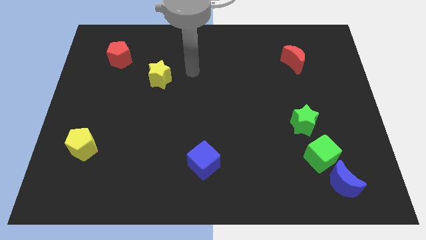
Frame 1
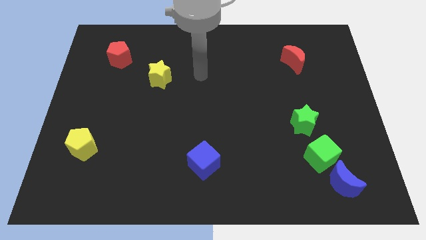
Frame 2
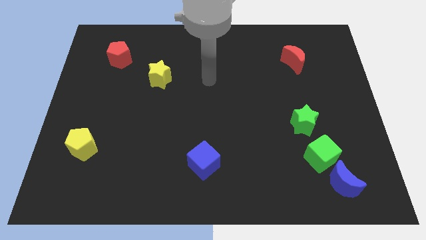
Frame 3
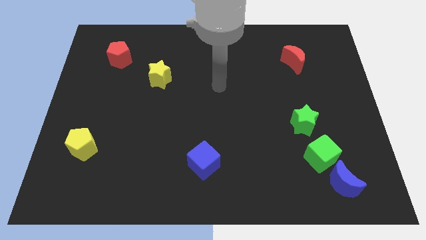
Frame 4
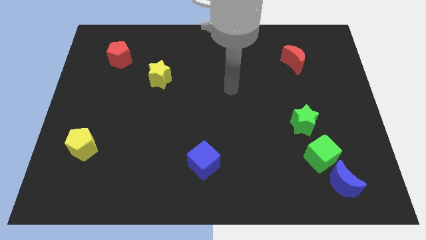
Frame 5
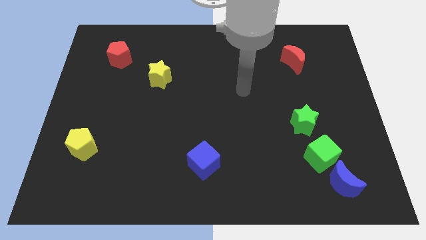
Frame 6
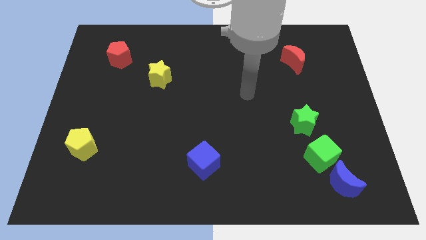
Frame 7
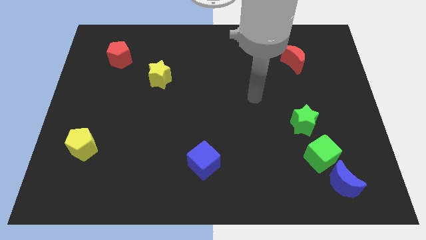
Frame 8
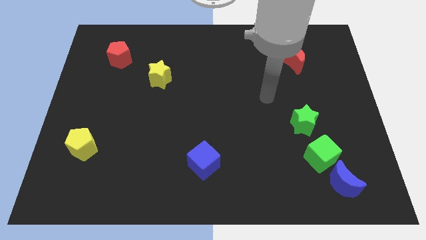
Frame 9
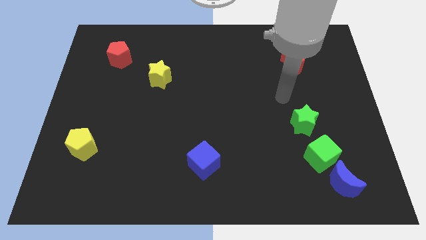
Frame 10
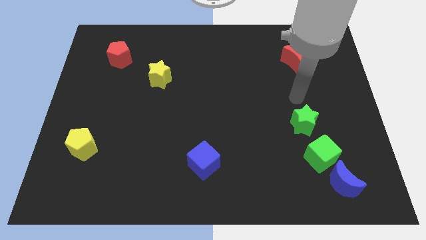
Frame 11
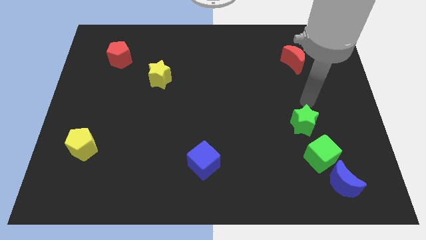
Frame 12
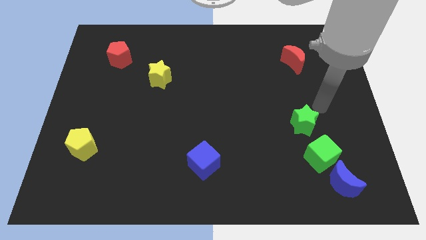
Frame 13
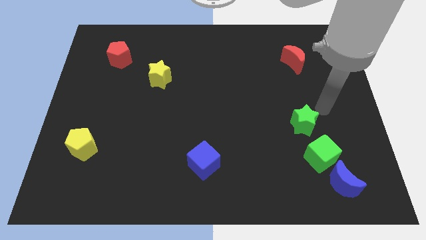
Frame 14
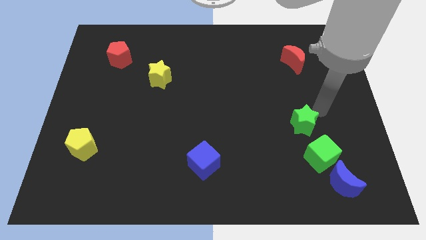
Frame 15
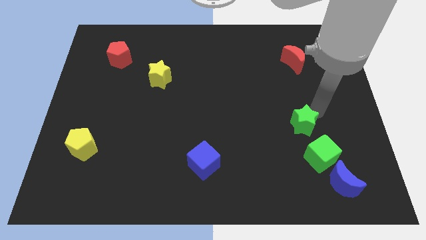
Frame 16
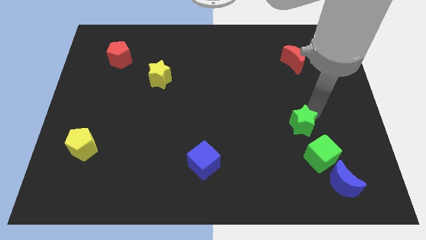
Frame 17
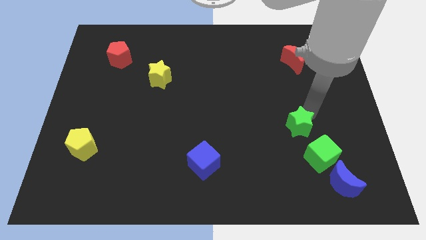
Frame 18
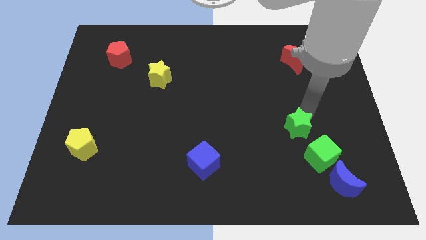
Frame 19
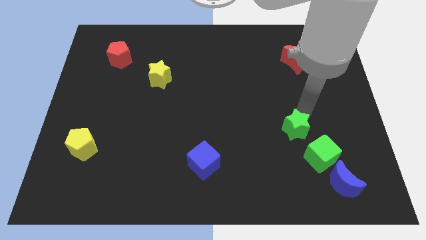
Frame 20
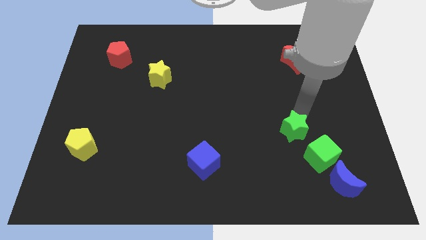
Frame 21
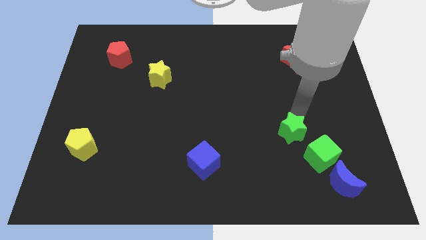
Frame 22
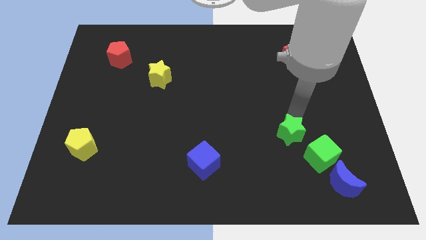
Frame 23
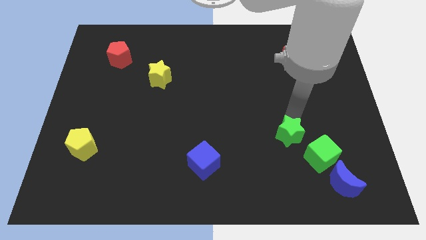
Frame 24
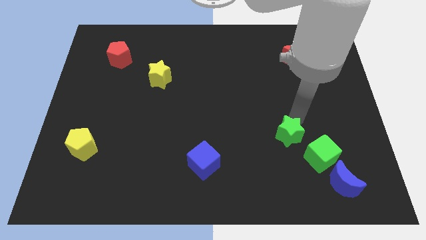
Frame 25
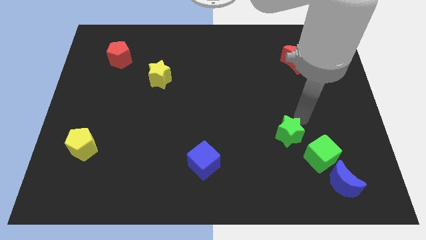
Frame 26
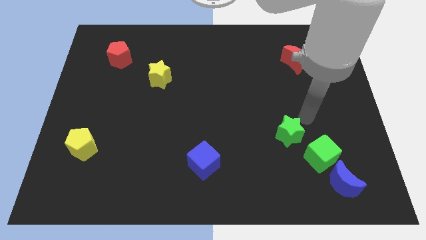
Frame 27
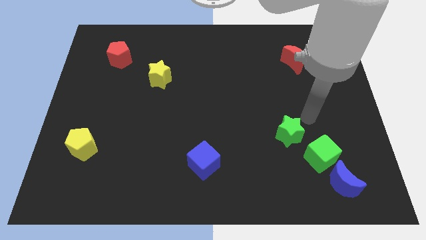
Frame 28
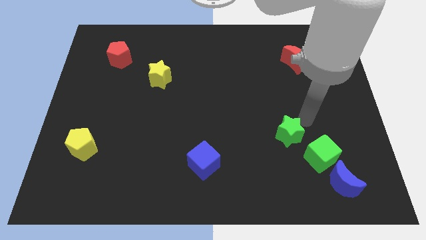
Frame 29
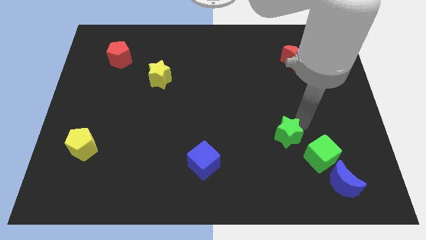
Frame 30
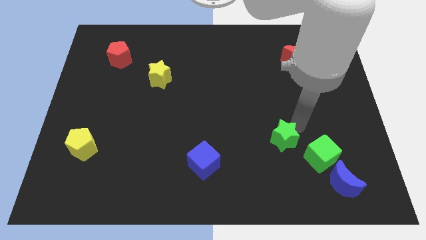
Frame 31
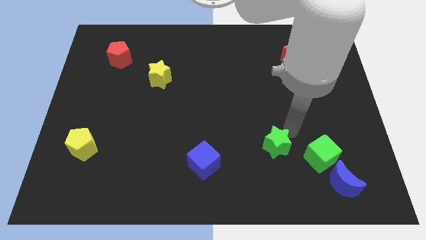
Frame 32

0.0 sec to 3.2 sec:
slide the green star diagonally down and to the left slightly

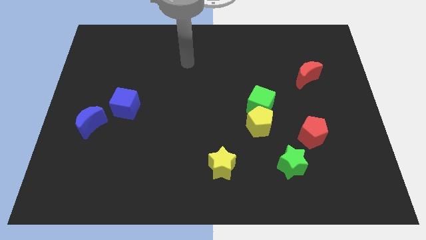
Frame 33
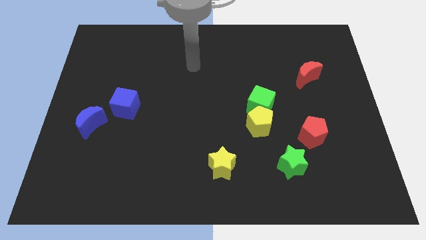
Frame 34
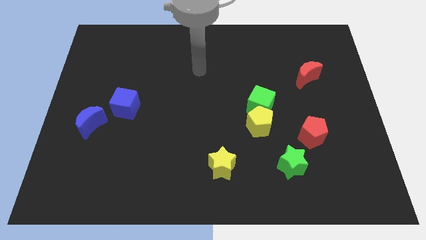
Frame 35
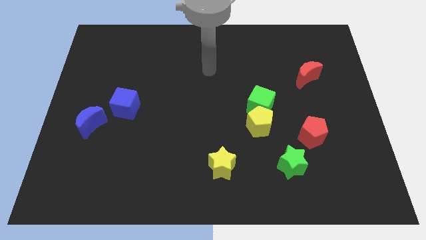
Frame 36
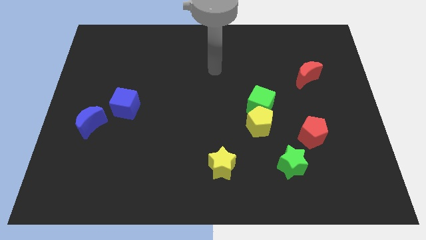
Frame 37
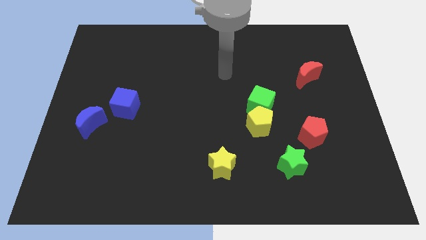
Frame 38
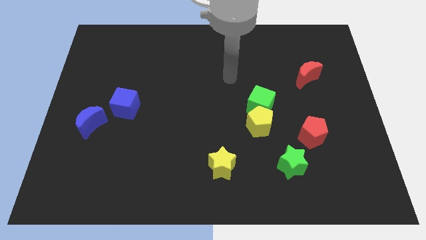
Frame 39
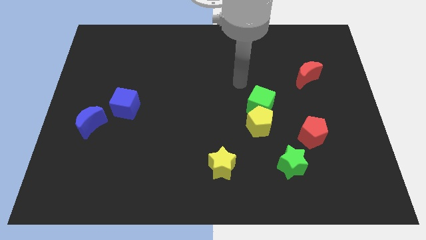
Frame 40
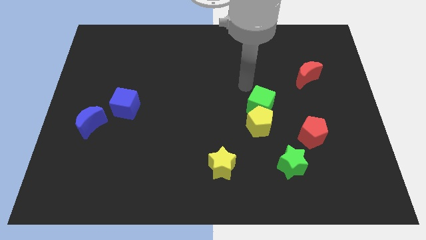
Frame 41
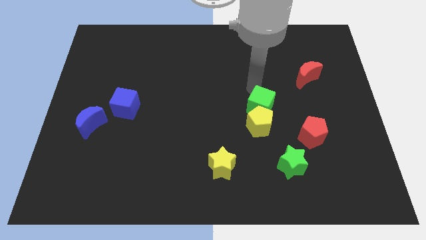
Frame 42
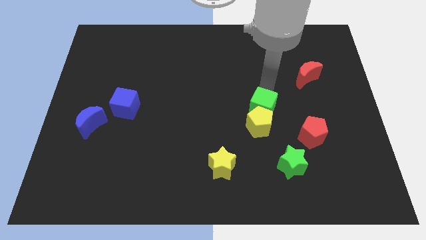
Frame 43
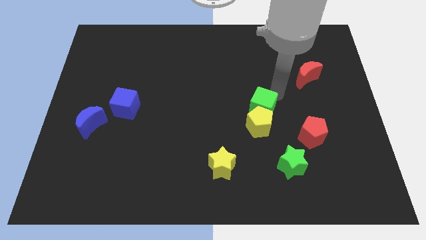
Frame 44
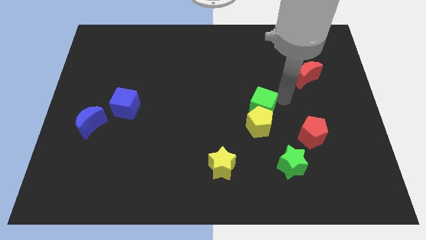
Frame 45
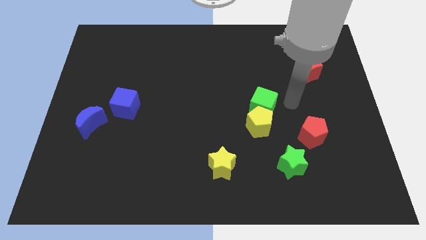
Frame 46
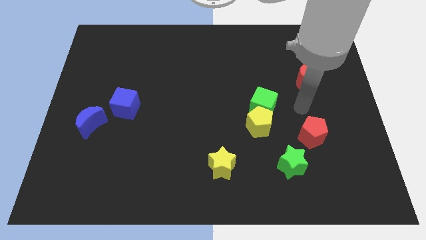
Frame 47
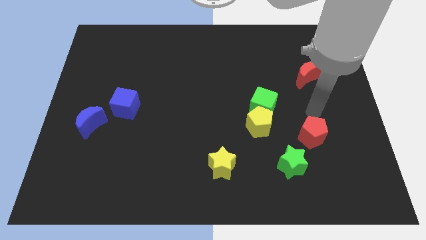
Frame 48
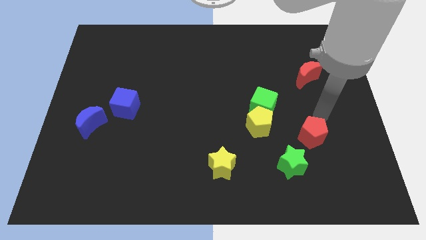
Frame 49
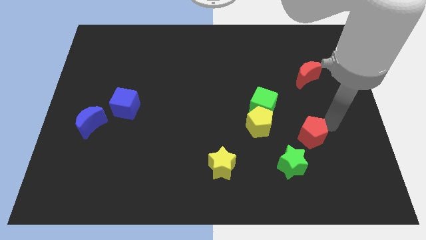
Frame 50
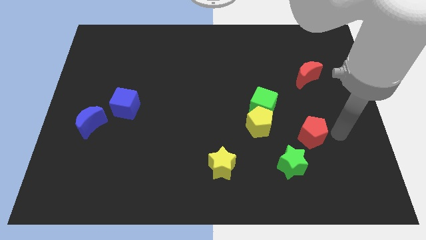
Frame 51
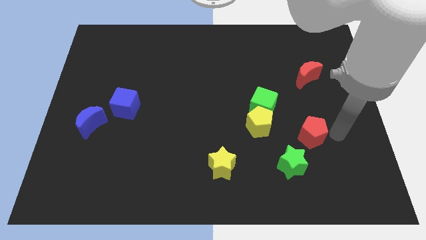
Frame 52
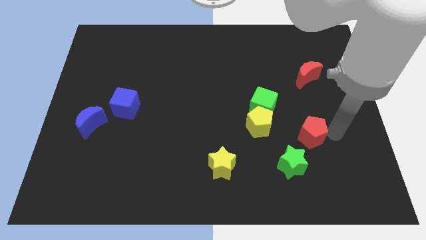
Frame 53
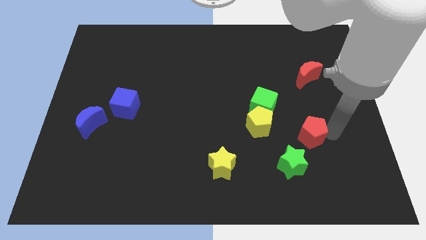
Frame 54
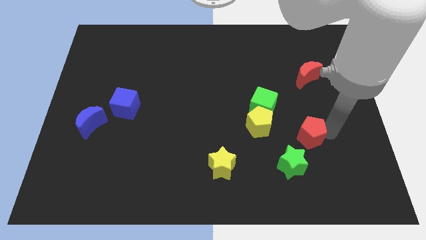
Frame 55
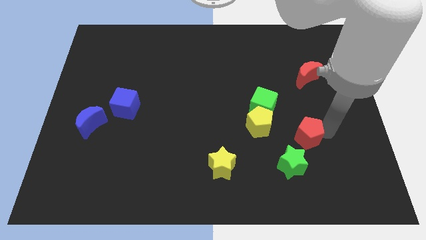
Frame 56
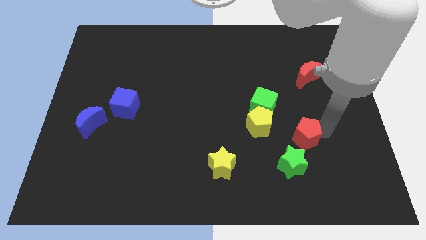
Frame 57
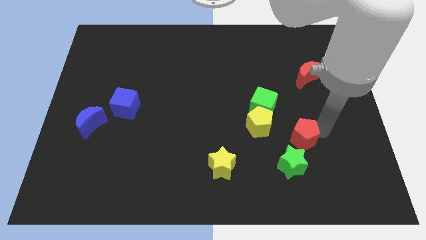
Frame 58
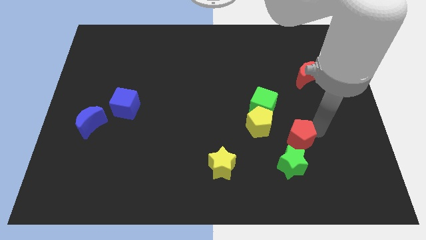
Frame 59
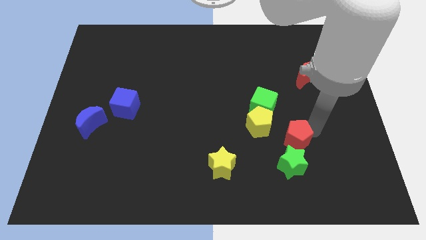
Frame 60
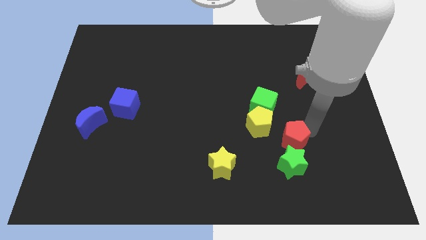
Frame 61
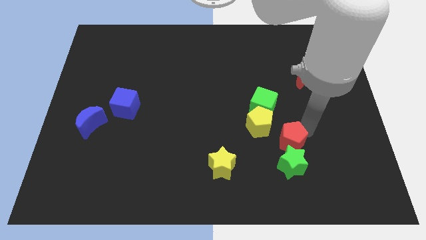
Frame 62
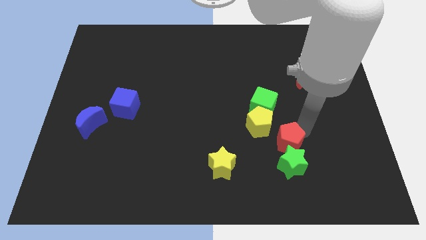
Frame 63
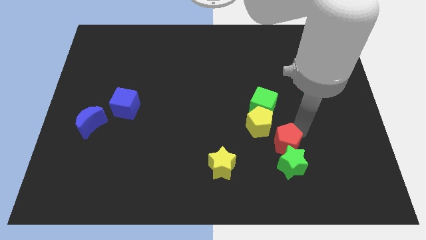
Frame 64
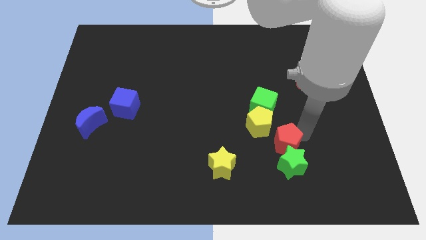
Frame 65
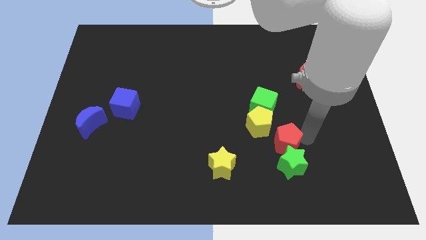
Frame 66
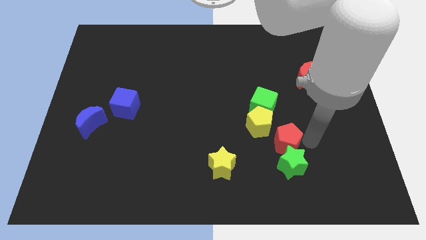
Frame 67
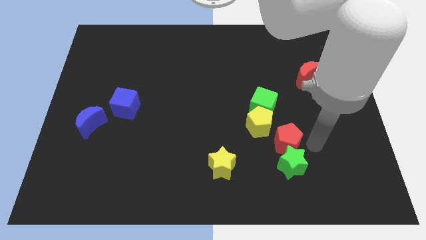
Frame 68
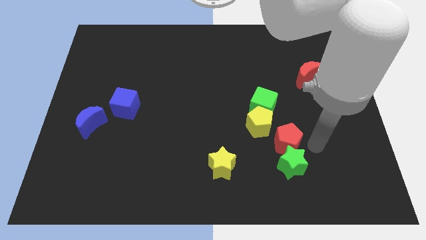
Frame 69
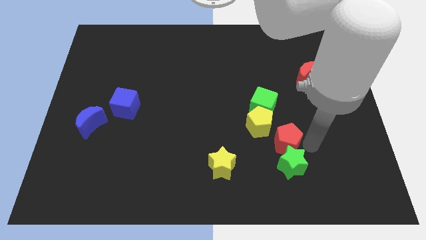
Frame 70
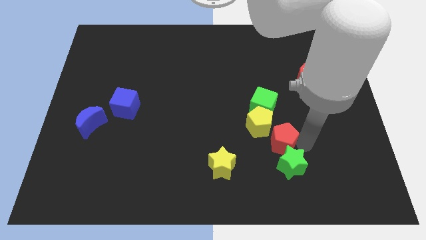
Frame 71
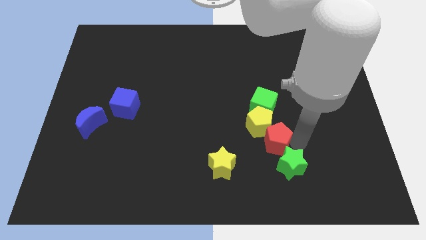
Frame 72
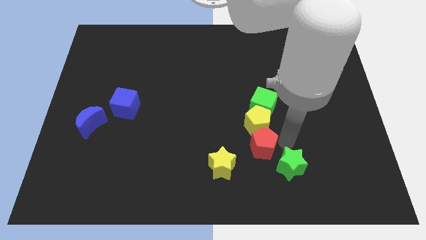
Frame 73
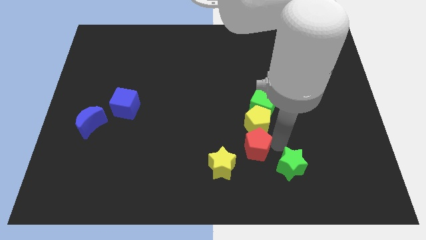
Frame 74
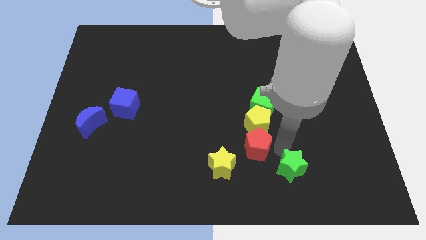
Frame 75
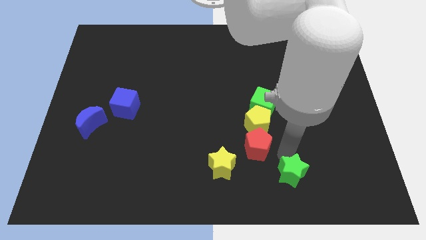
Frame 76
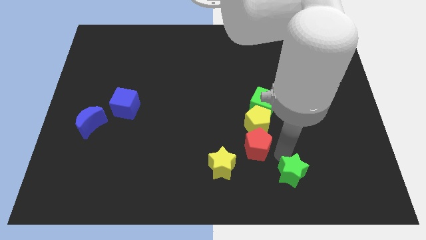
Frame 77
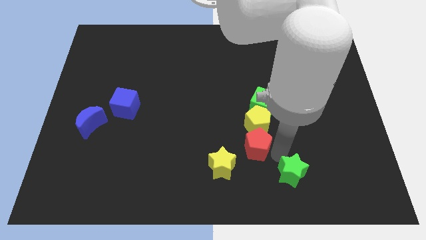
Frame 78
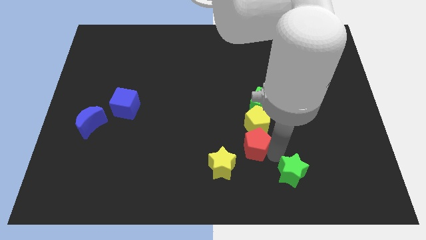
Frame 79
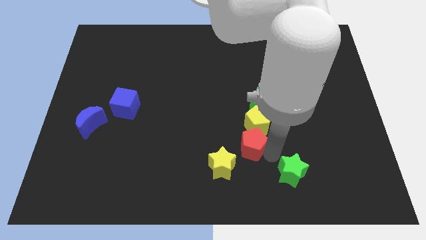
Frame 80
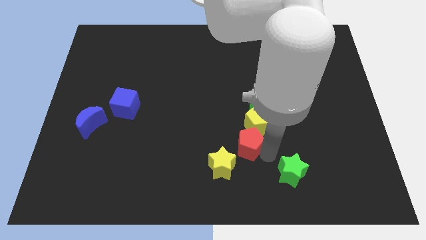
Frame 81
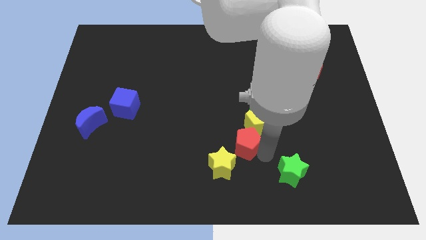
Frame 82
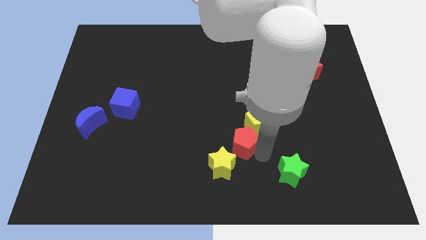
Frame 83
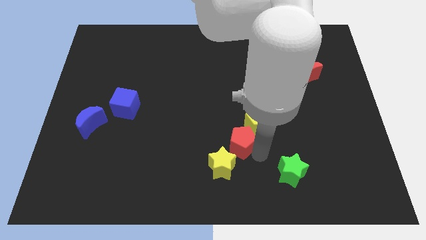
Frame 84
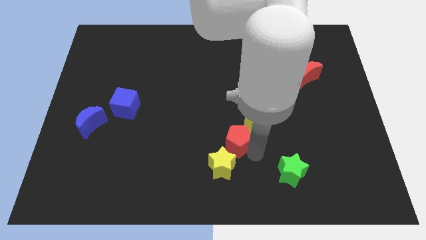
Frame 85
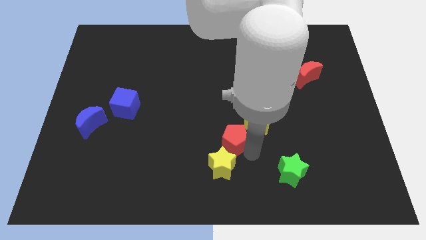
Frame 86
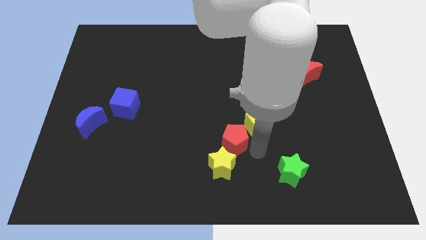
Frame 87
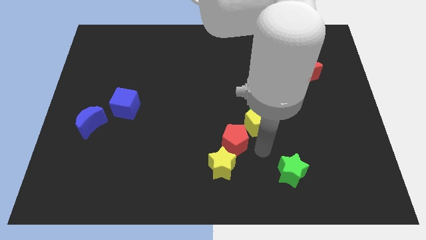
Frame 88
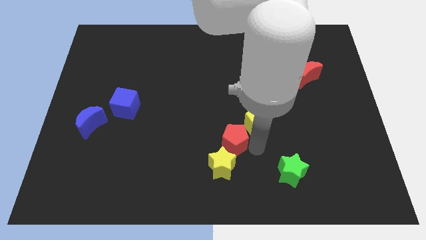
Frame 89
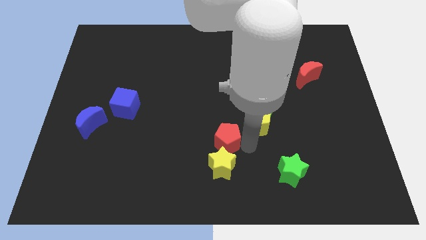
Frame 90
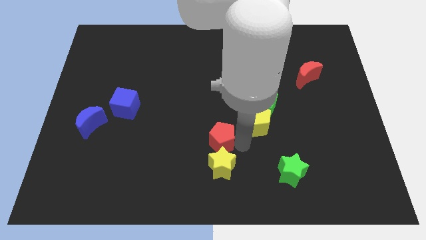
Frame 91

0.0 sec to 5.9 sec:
move the red pentagon left
